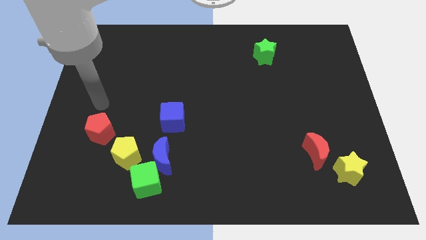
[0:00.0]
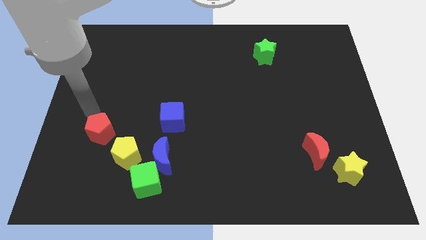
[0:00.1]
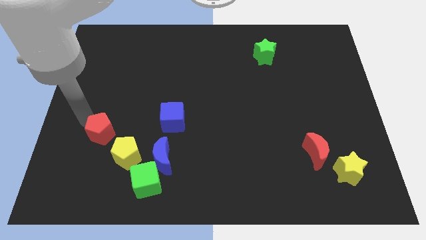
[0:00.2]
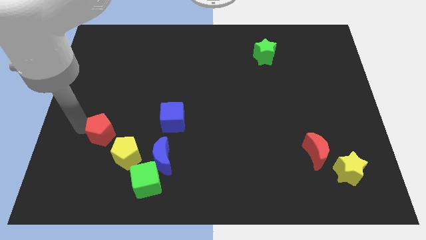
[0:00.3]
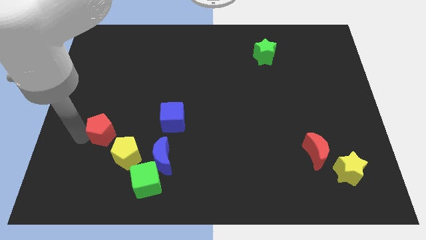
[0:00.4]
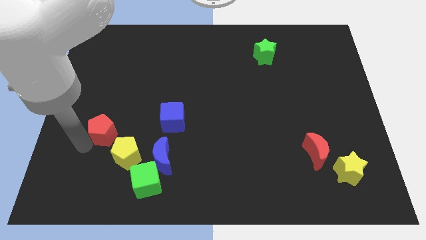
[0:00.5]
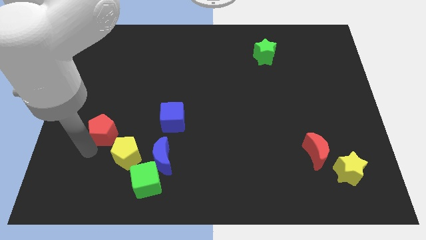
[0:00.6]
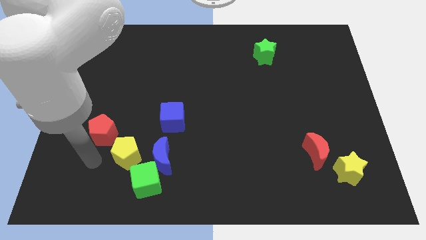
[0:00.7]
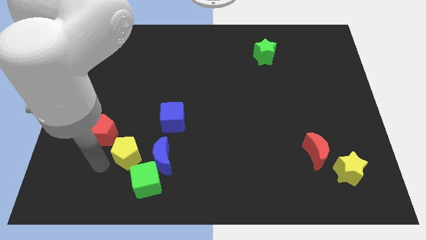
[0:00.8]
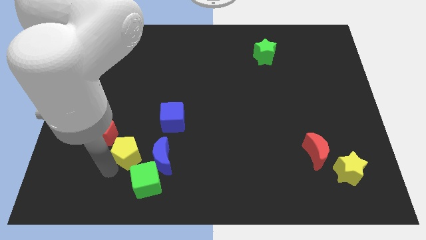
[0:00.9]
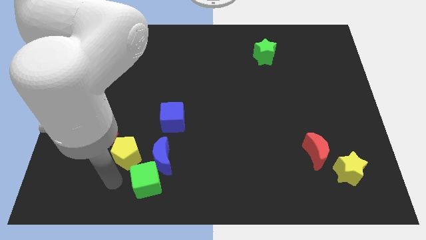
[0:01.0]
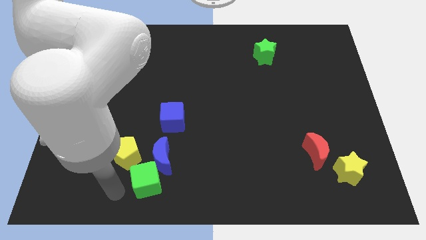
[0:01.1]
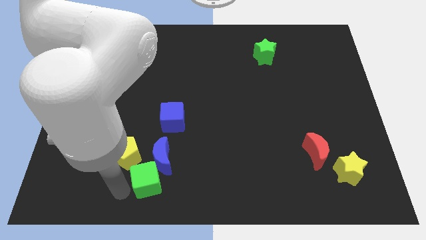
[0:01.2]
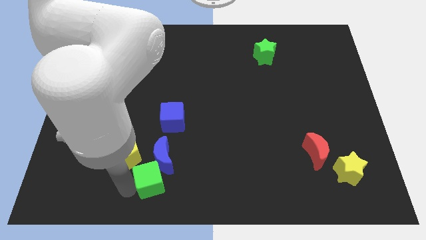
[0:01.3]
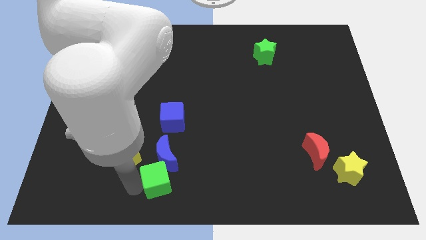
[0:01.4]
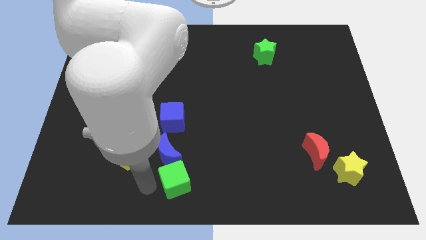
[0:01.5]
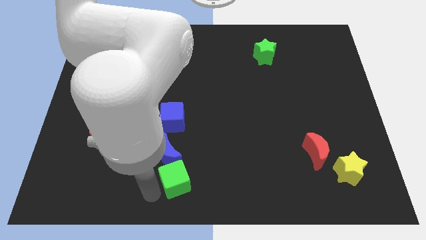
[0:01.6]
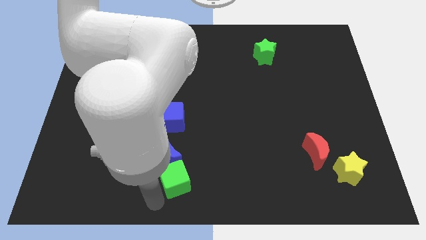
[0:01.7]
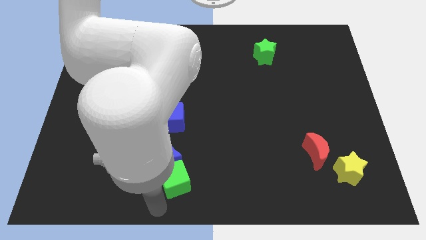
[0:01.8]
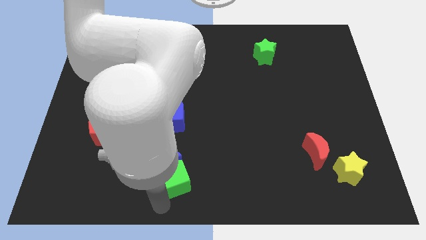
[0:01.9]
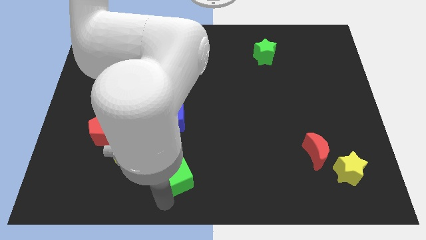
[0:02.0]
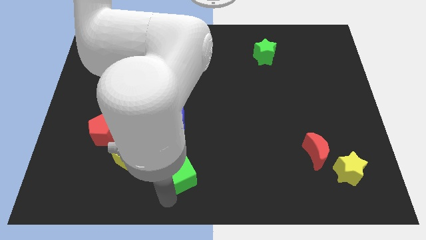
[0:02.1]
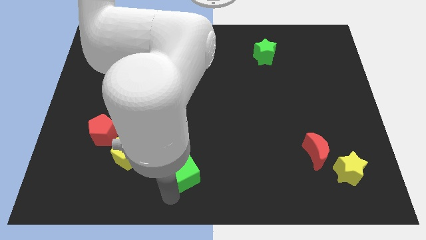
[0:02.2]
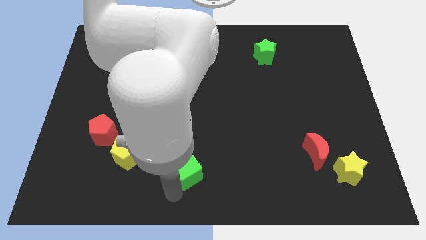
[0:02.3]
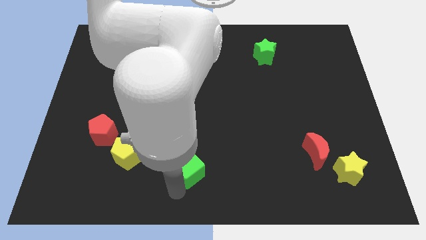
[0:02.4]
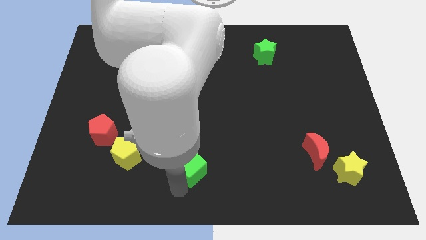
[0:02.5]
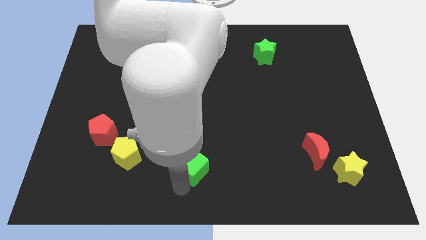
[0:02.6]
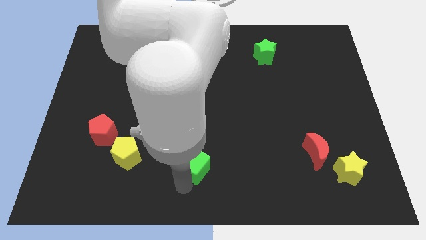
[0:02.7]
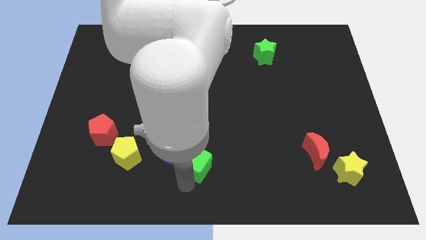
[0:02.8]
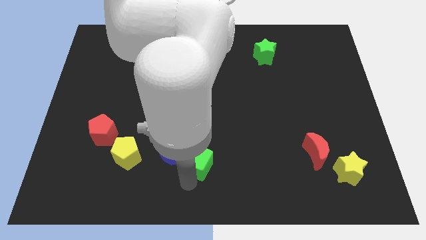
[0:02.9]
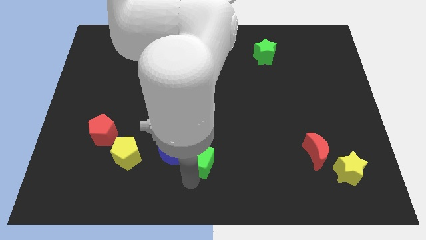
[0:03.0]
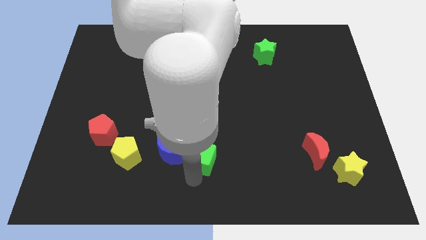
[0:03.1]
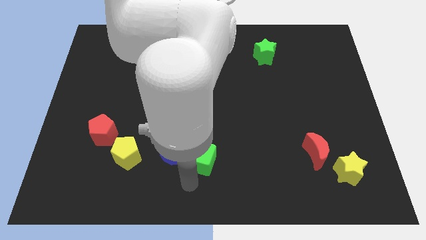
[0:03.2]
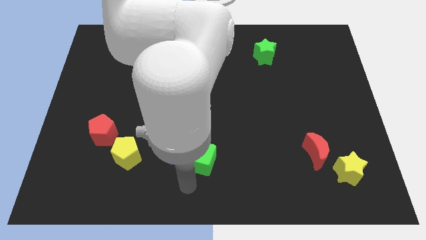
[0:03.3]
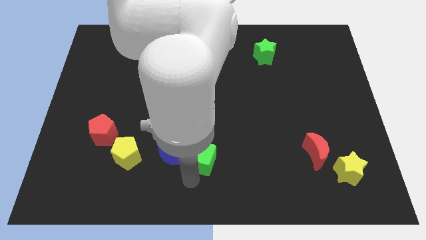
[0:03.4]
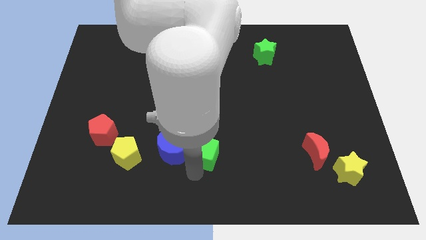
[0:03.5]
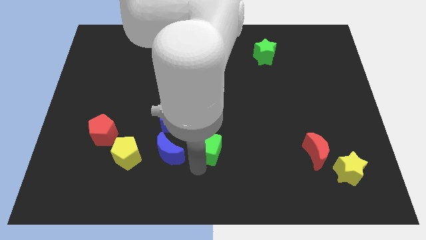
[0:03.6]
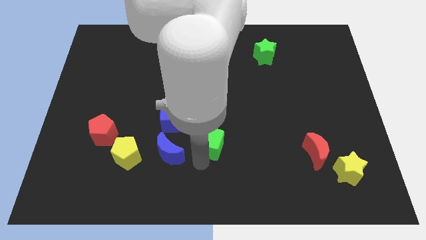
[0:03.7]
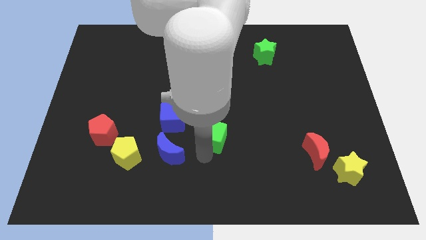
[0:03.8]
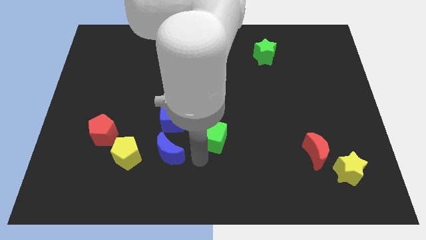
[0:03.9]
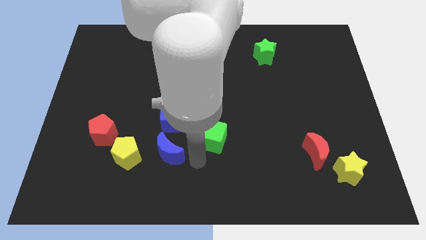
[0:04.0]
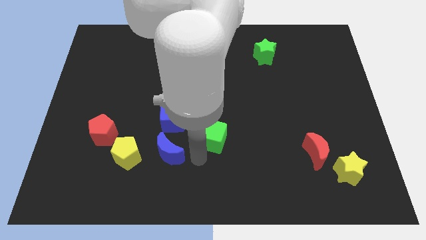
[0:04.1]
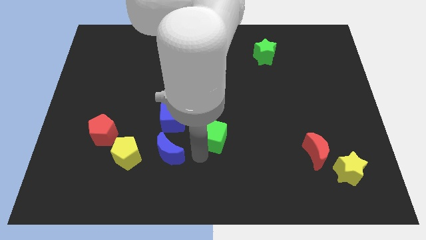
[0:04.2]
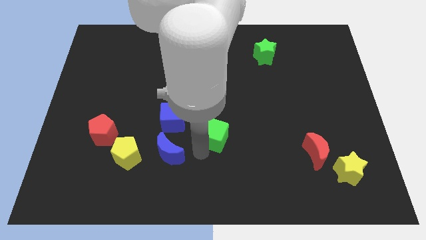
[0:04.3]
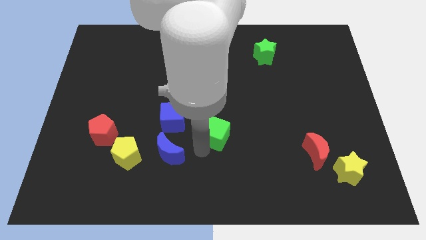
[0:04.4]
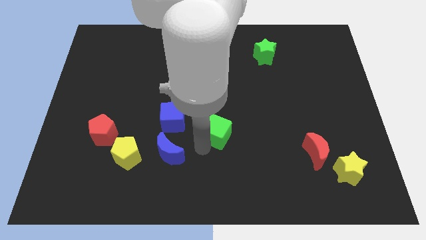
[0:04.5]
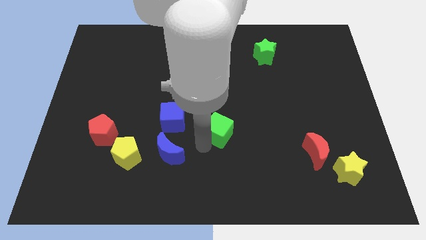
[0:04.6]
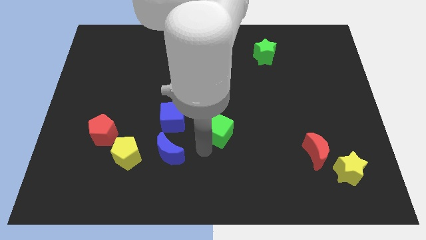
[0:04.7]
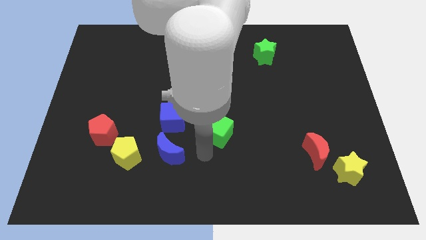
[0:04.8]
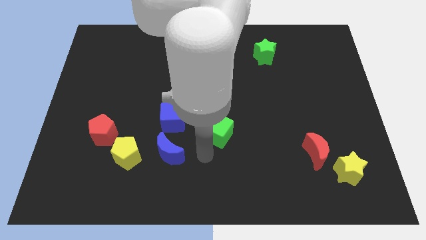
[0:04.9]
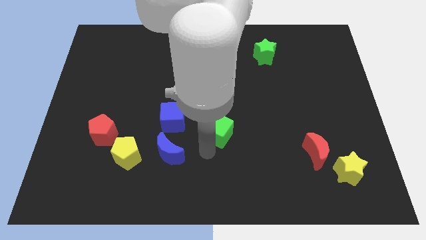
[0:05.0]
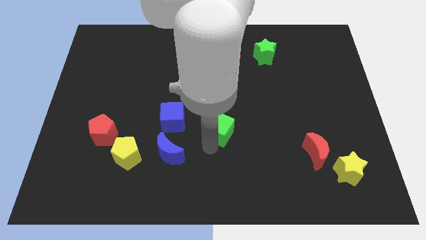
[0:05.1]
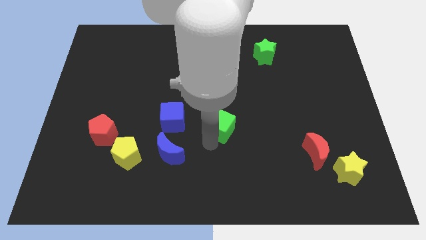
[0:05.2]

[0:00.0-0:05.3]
slide the green cube upwards and then to the right

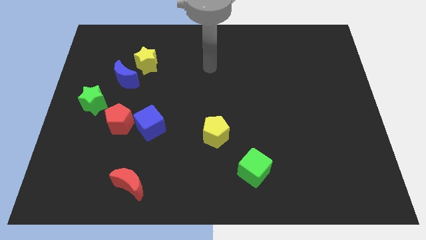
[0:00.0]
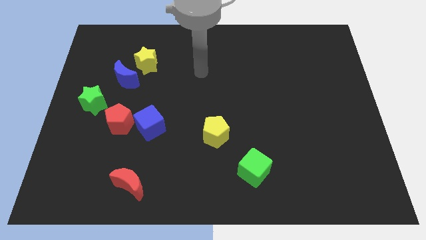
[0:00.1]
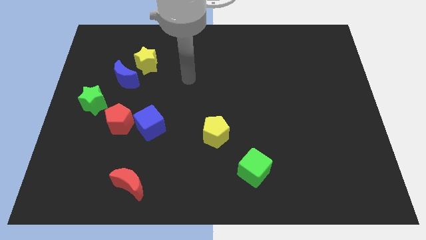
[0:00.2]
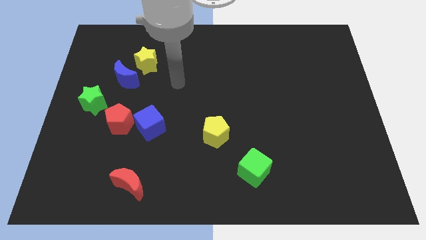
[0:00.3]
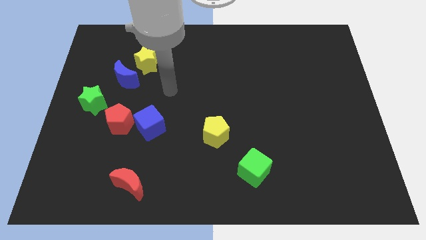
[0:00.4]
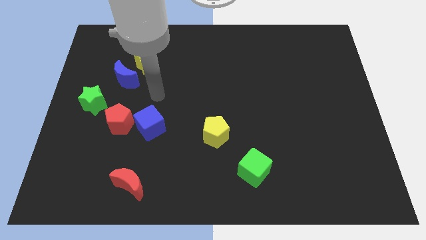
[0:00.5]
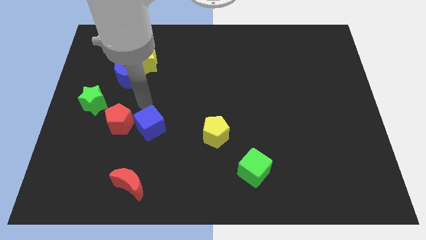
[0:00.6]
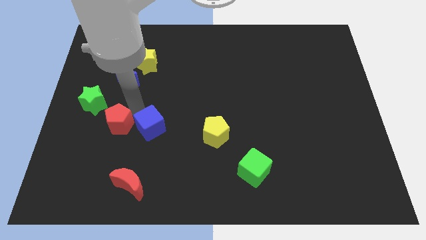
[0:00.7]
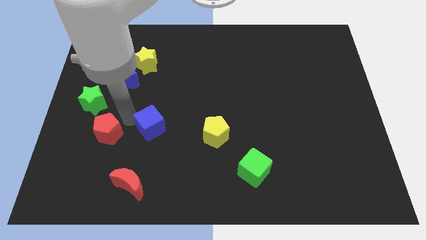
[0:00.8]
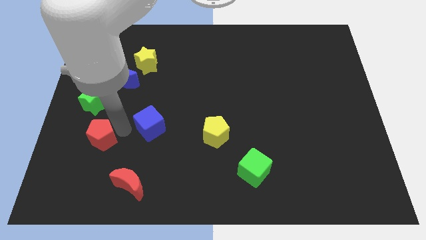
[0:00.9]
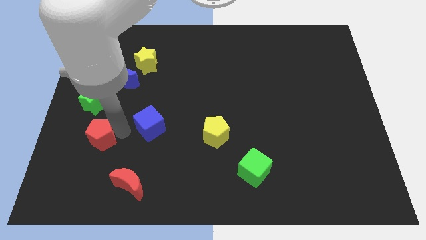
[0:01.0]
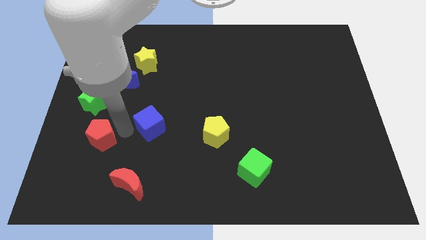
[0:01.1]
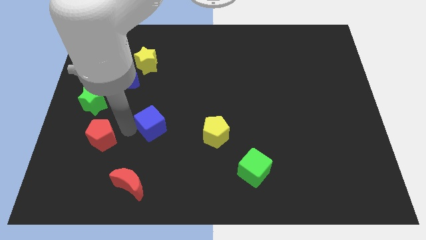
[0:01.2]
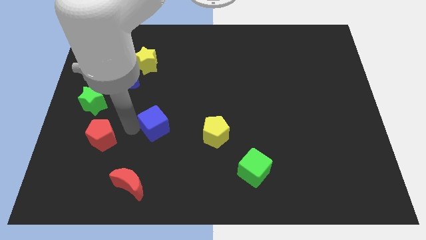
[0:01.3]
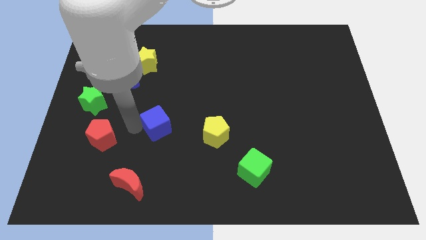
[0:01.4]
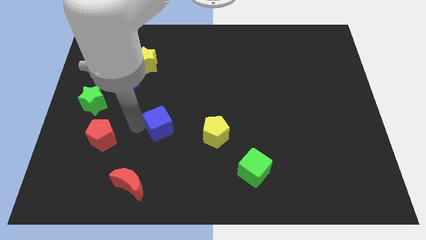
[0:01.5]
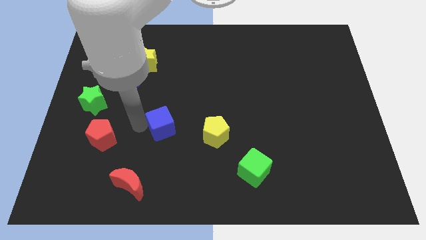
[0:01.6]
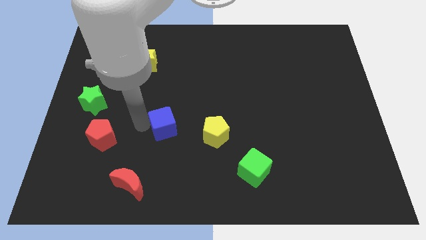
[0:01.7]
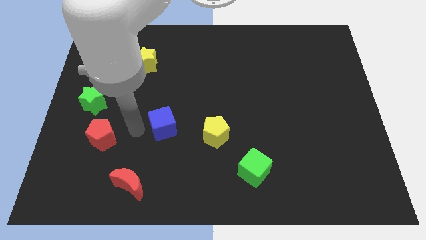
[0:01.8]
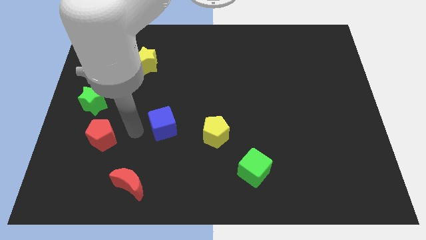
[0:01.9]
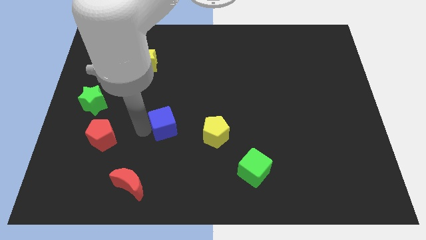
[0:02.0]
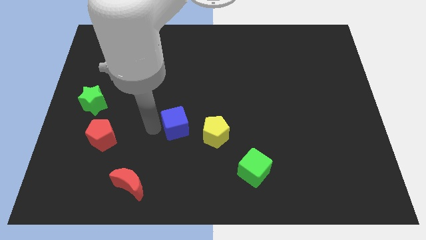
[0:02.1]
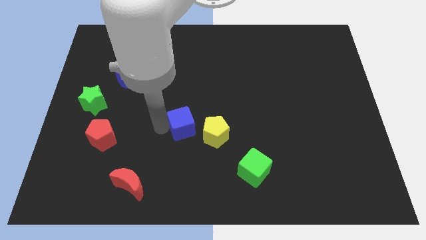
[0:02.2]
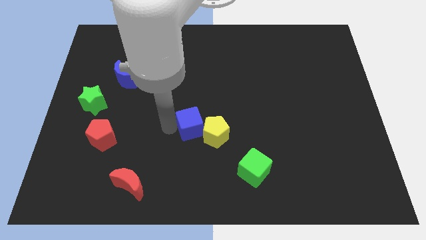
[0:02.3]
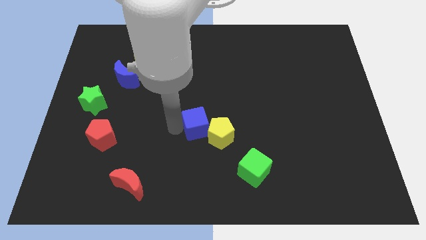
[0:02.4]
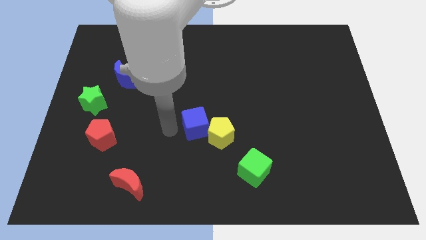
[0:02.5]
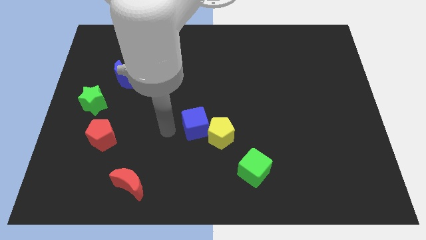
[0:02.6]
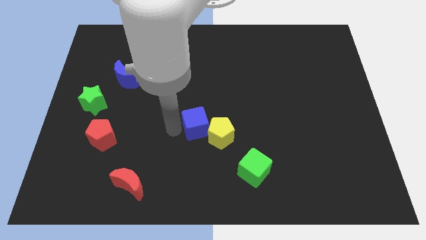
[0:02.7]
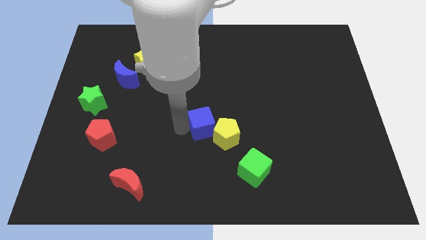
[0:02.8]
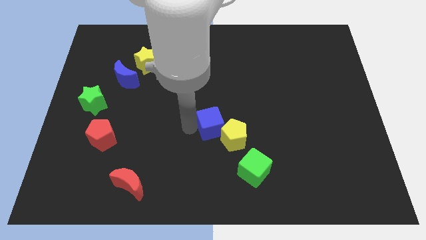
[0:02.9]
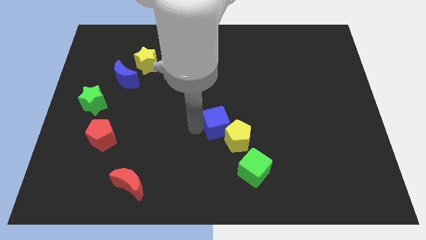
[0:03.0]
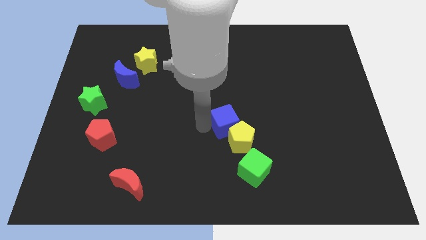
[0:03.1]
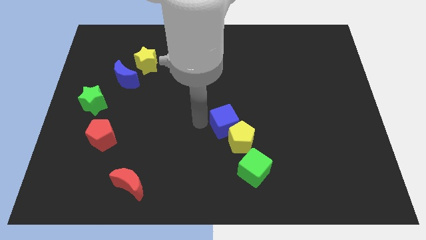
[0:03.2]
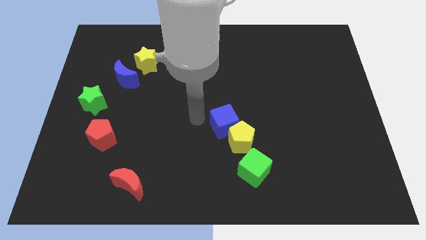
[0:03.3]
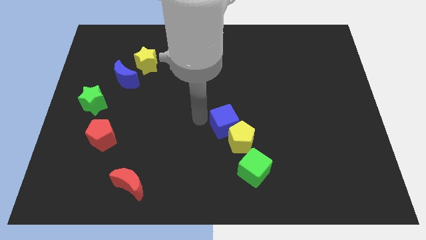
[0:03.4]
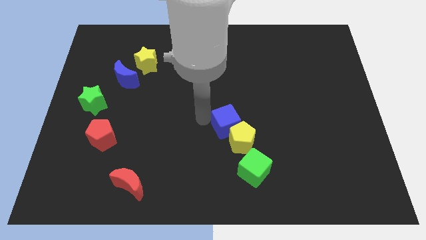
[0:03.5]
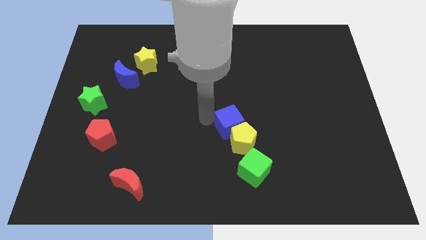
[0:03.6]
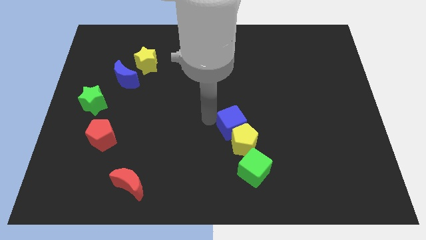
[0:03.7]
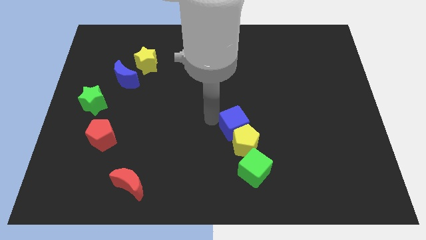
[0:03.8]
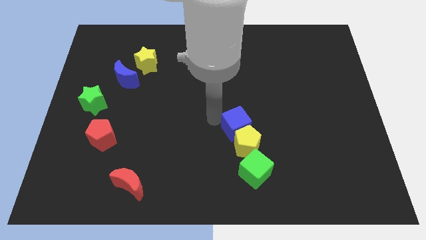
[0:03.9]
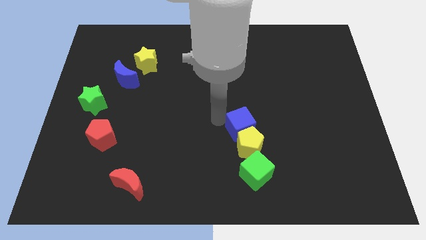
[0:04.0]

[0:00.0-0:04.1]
push the blue cube to the right
